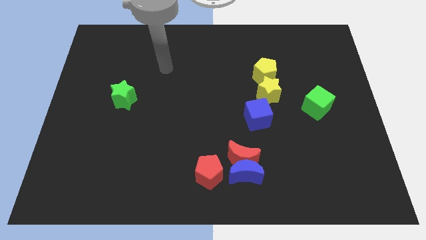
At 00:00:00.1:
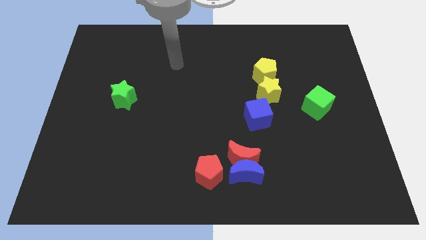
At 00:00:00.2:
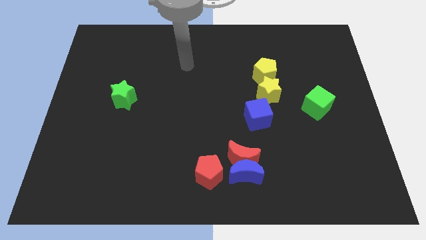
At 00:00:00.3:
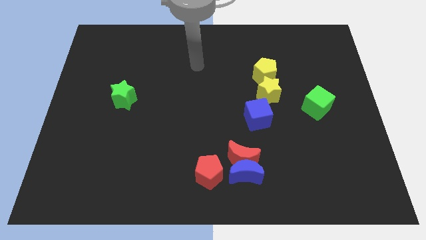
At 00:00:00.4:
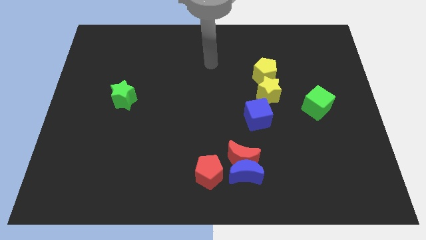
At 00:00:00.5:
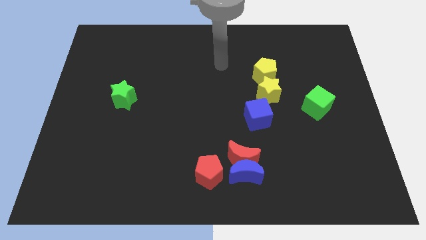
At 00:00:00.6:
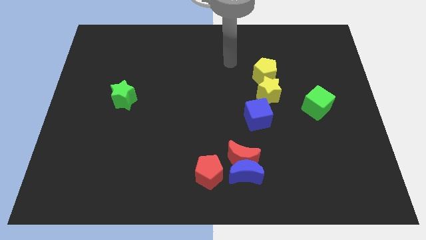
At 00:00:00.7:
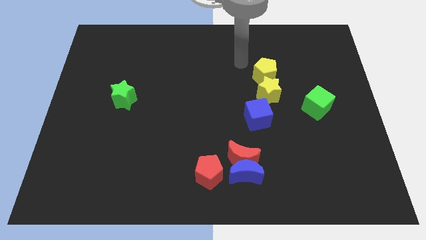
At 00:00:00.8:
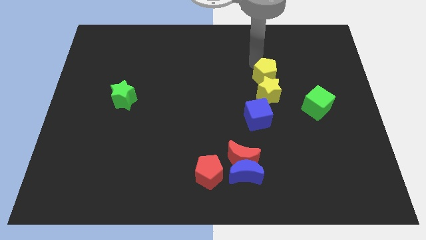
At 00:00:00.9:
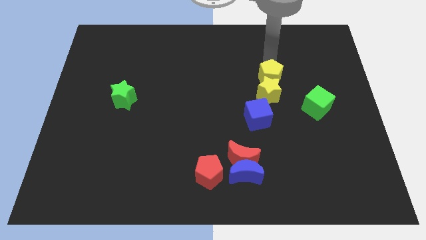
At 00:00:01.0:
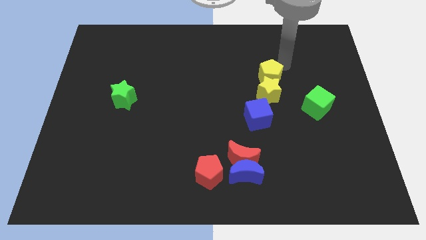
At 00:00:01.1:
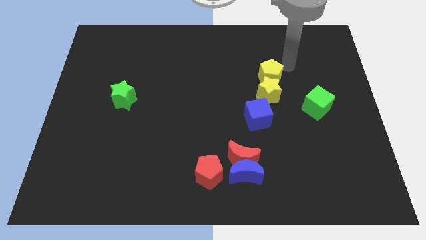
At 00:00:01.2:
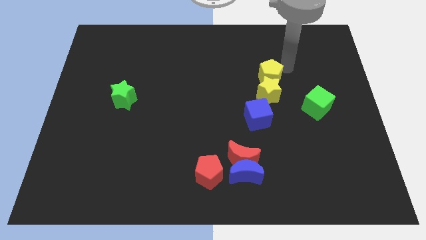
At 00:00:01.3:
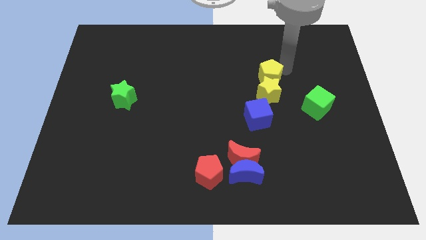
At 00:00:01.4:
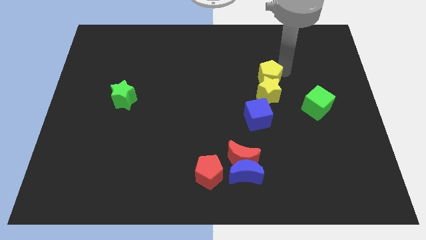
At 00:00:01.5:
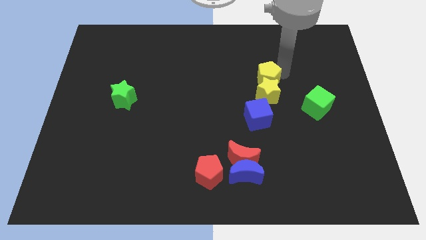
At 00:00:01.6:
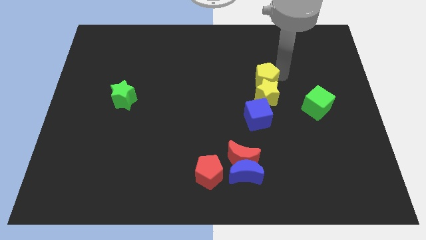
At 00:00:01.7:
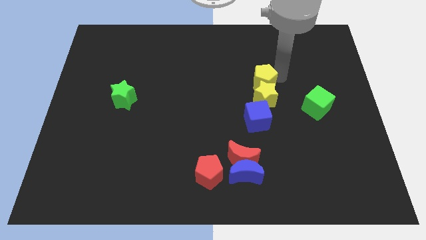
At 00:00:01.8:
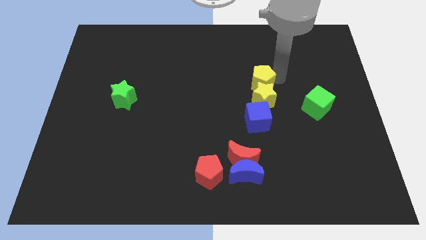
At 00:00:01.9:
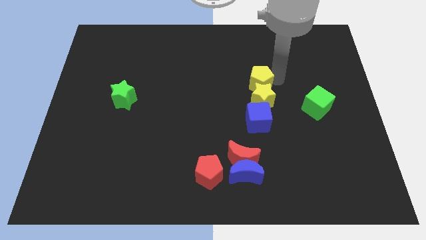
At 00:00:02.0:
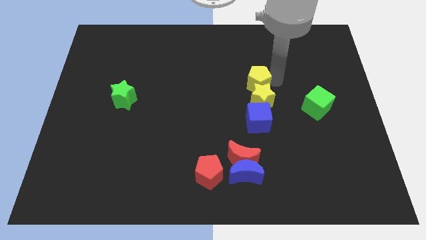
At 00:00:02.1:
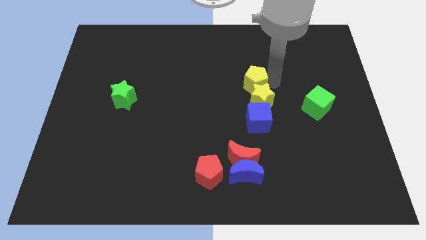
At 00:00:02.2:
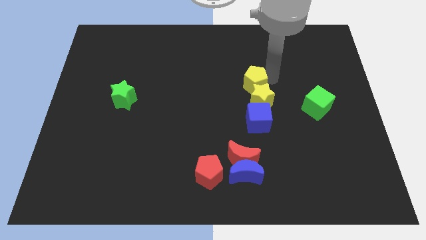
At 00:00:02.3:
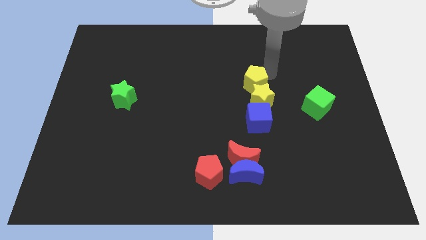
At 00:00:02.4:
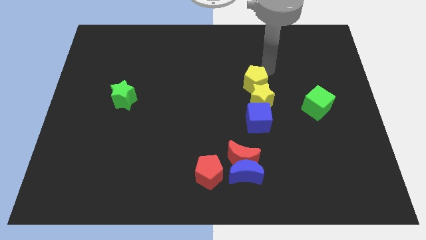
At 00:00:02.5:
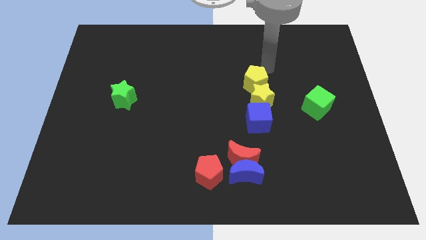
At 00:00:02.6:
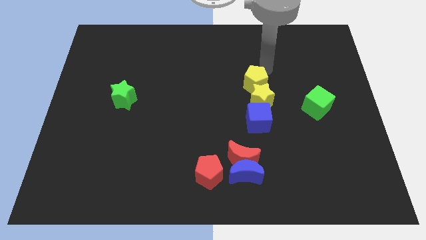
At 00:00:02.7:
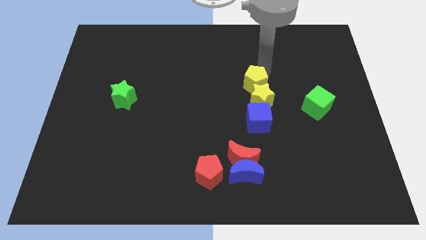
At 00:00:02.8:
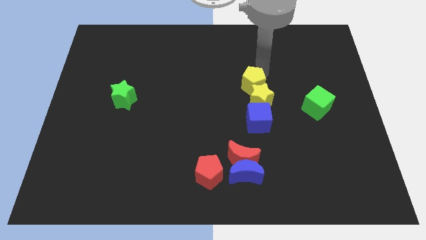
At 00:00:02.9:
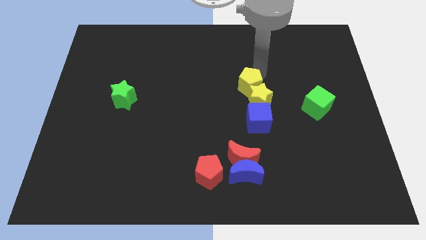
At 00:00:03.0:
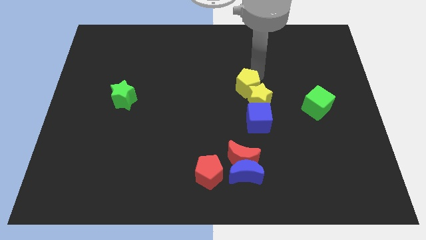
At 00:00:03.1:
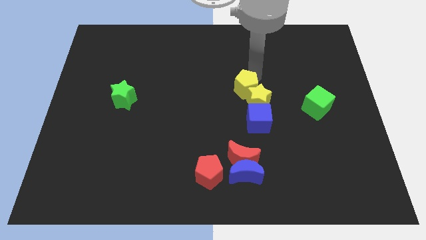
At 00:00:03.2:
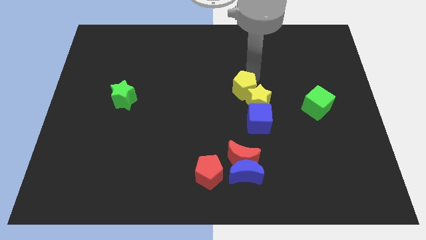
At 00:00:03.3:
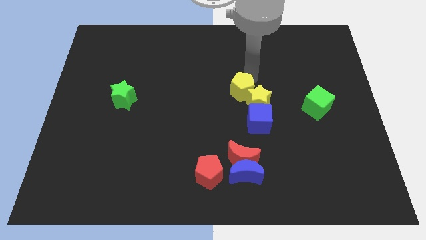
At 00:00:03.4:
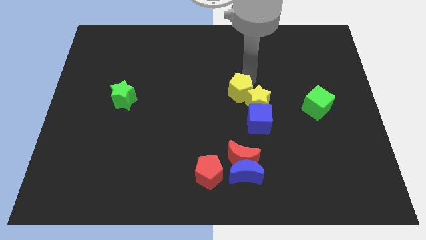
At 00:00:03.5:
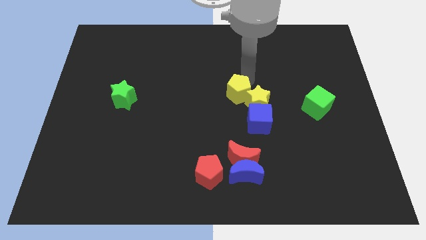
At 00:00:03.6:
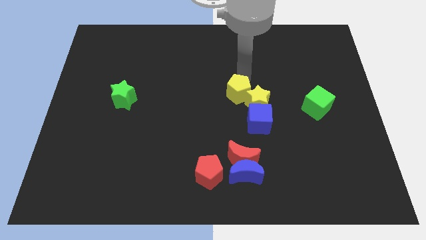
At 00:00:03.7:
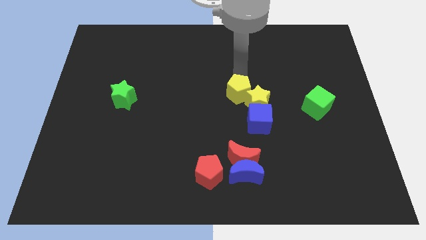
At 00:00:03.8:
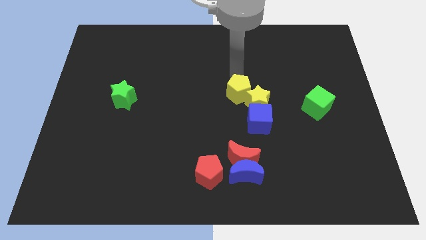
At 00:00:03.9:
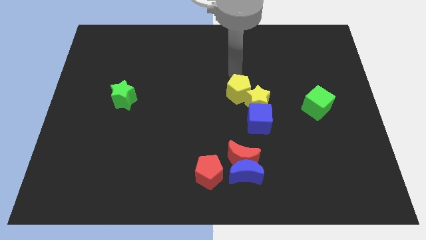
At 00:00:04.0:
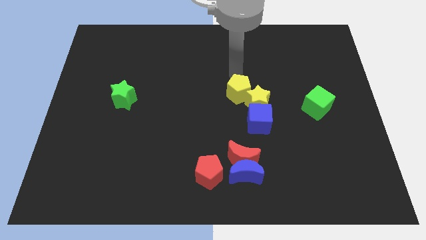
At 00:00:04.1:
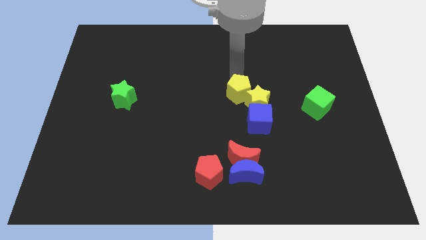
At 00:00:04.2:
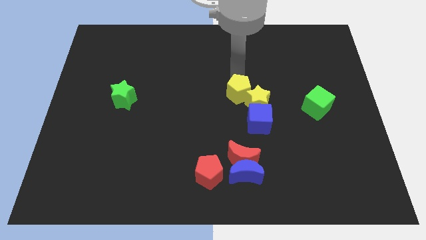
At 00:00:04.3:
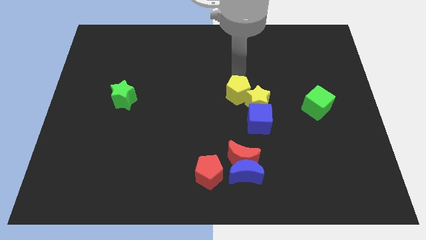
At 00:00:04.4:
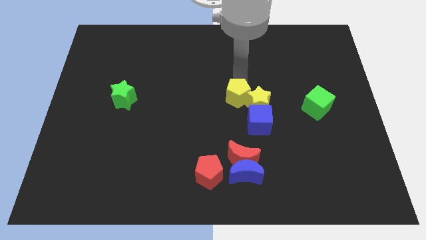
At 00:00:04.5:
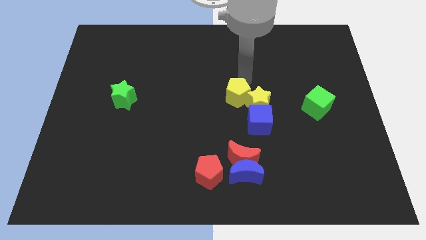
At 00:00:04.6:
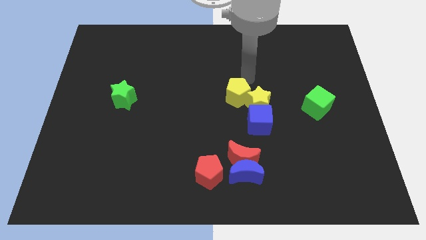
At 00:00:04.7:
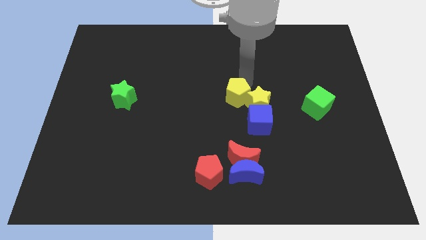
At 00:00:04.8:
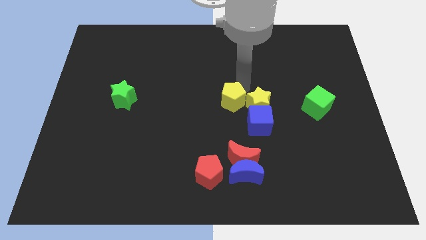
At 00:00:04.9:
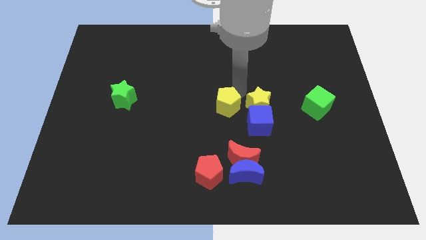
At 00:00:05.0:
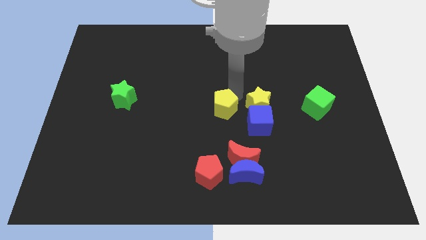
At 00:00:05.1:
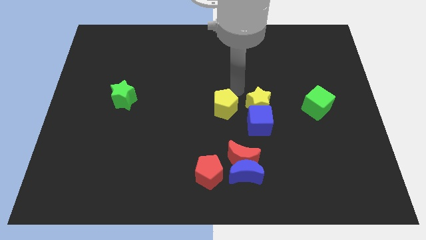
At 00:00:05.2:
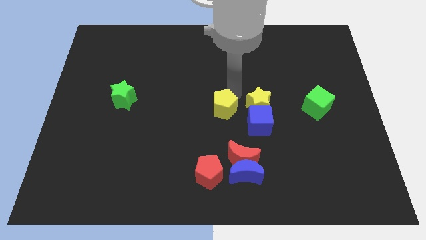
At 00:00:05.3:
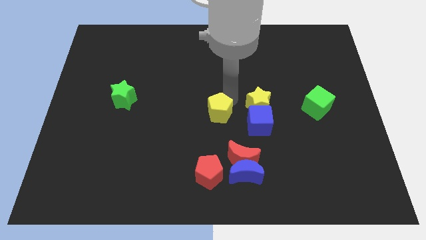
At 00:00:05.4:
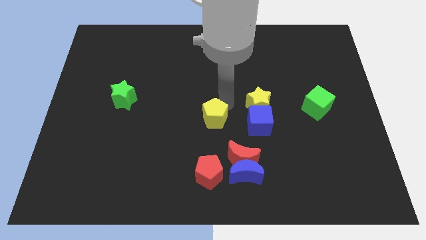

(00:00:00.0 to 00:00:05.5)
slide the yellow pentagon above the red pentagon

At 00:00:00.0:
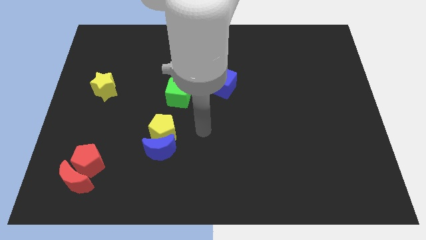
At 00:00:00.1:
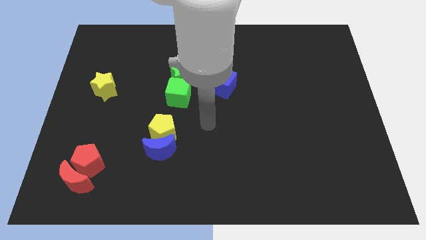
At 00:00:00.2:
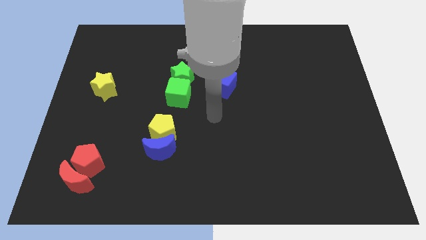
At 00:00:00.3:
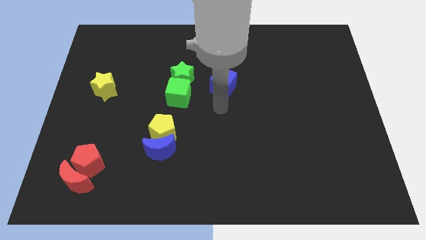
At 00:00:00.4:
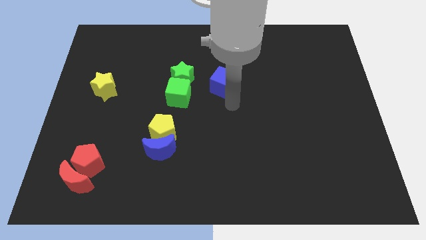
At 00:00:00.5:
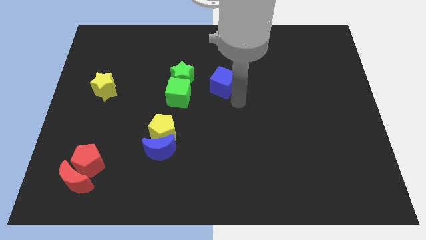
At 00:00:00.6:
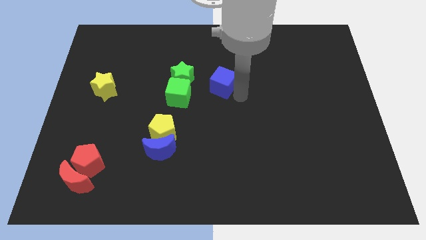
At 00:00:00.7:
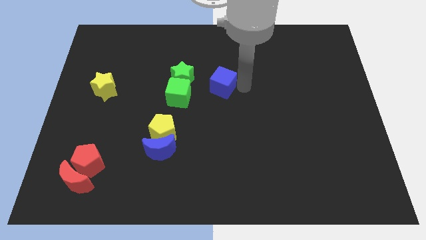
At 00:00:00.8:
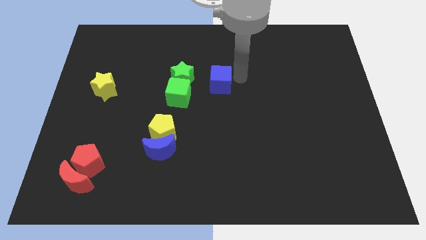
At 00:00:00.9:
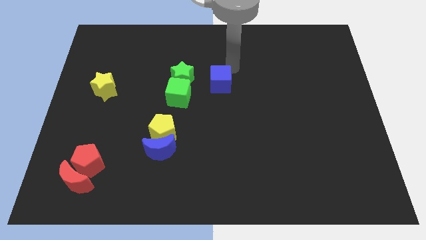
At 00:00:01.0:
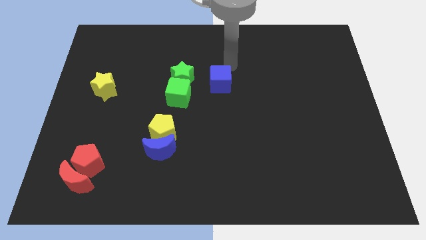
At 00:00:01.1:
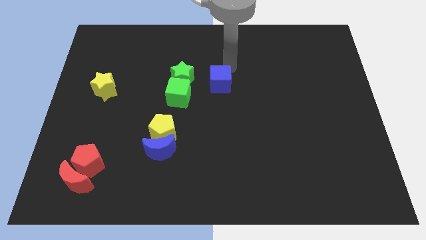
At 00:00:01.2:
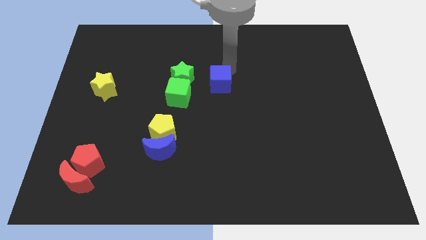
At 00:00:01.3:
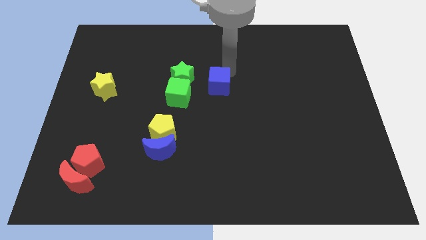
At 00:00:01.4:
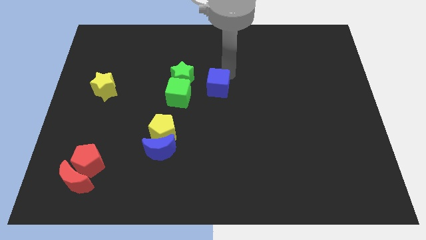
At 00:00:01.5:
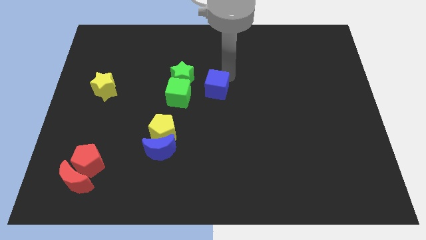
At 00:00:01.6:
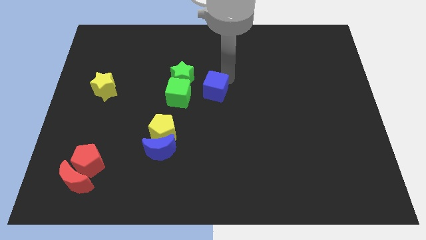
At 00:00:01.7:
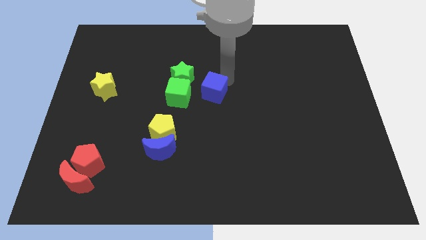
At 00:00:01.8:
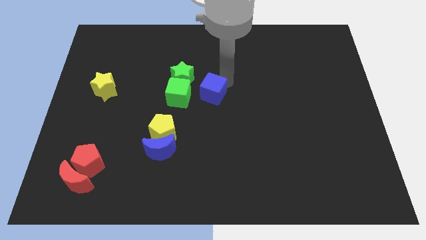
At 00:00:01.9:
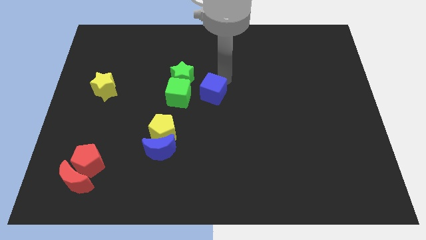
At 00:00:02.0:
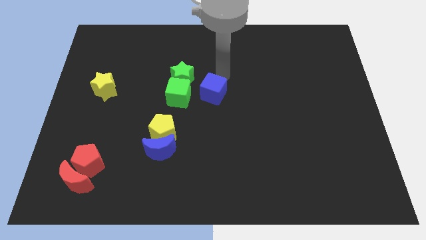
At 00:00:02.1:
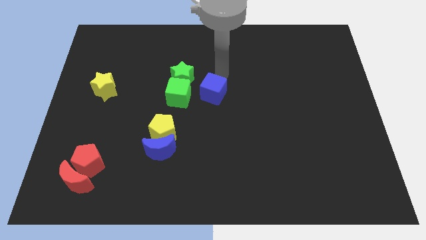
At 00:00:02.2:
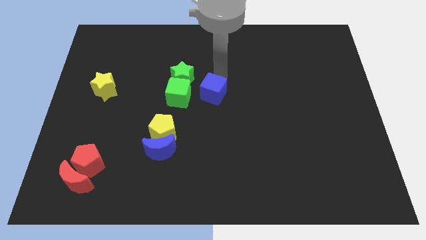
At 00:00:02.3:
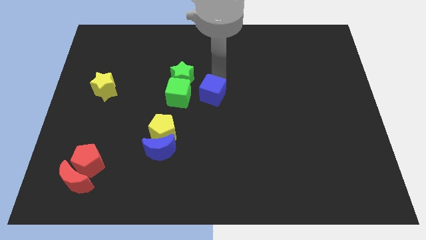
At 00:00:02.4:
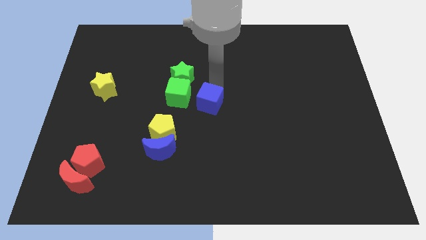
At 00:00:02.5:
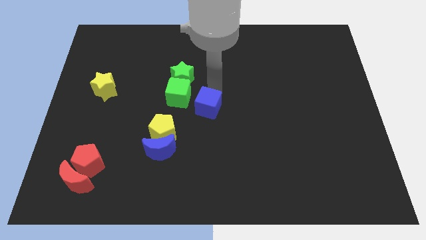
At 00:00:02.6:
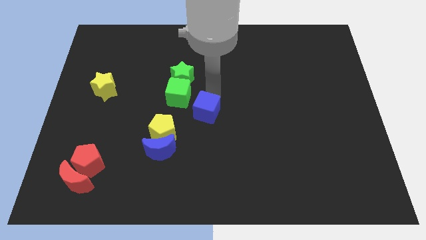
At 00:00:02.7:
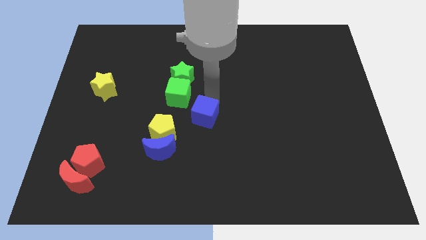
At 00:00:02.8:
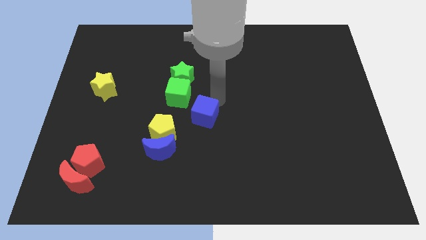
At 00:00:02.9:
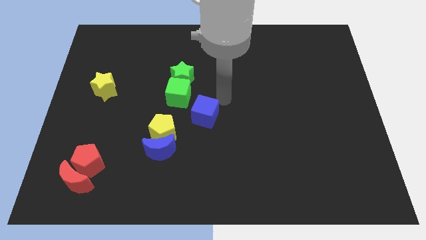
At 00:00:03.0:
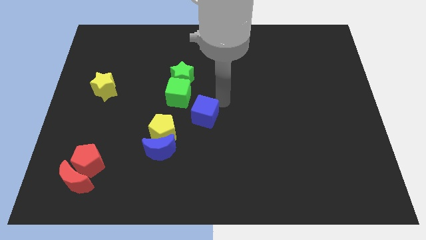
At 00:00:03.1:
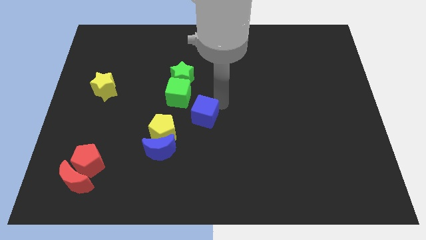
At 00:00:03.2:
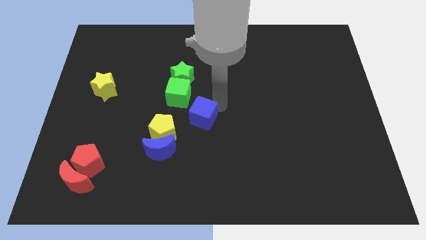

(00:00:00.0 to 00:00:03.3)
put the blue cube to the top right of the blue moon
